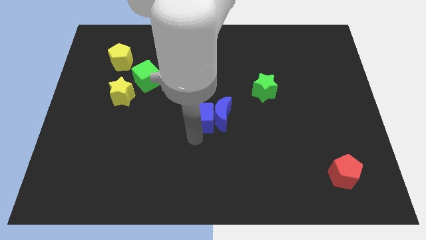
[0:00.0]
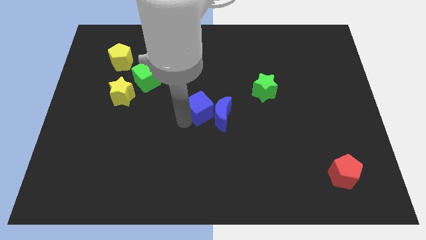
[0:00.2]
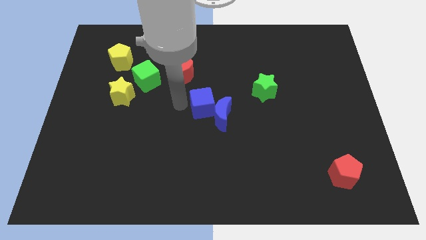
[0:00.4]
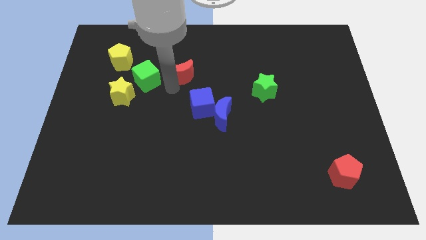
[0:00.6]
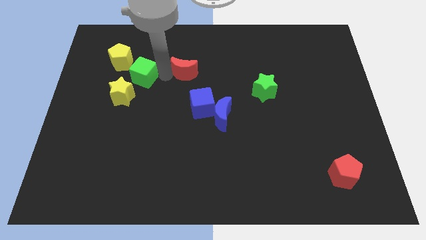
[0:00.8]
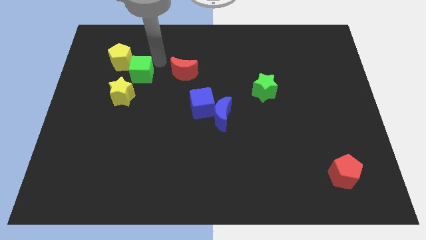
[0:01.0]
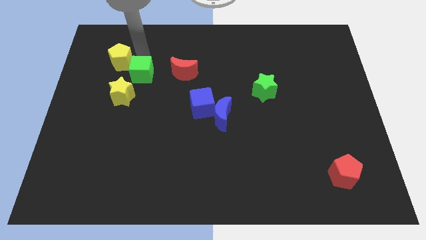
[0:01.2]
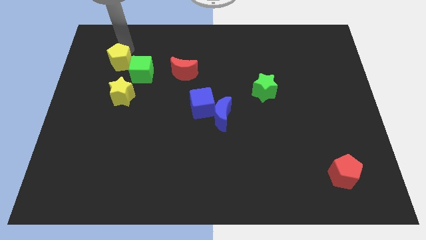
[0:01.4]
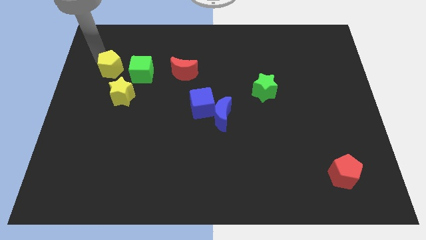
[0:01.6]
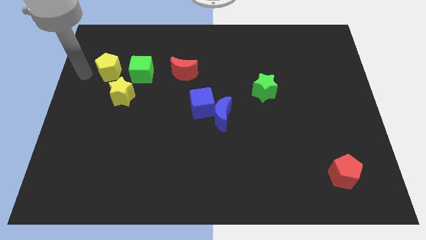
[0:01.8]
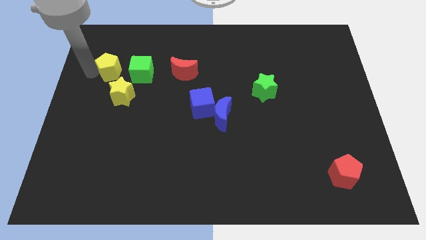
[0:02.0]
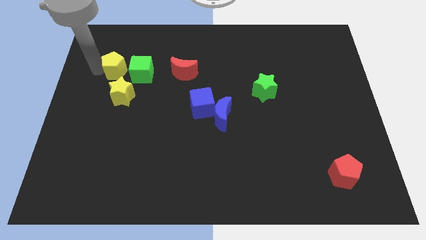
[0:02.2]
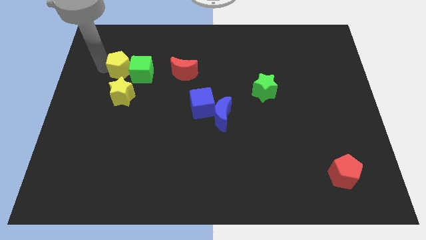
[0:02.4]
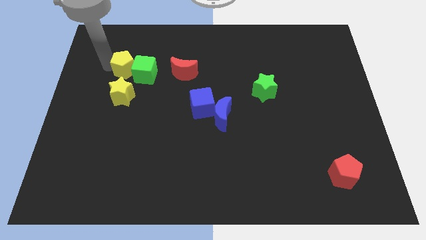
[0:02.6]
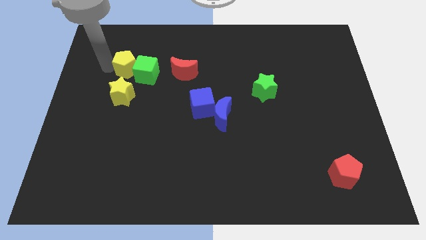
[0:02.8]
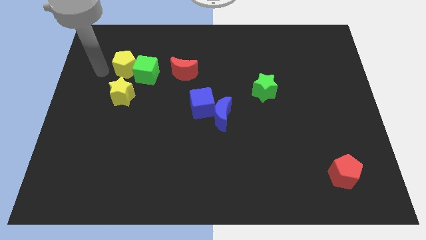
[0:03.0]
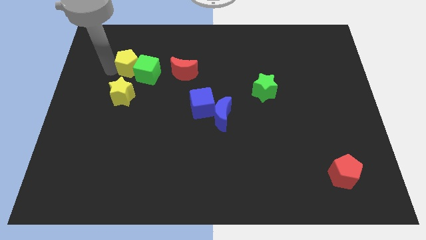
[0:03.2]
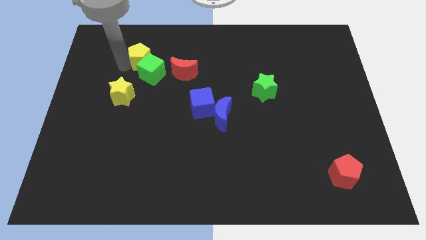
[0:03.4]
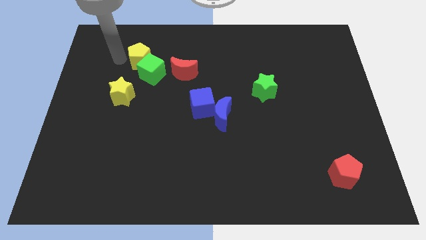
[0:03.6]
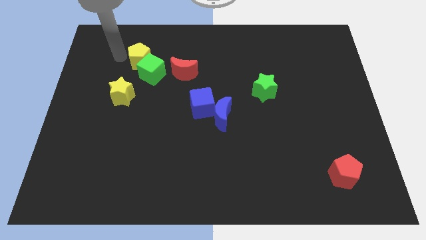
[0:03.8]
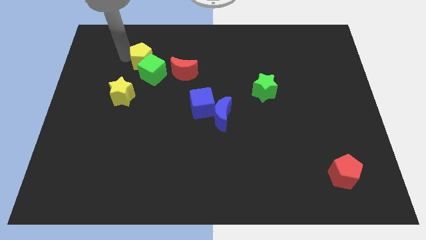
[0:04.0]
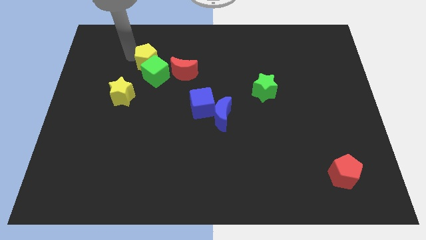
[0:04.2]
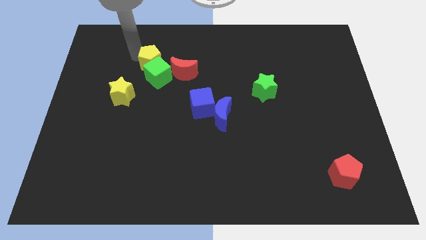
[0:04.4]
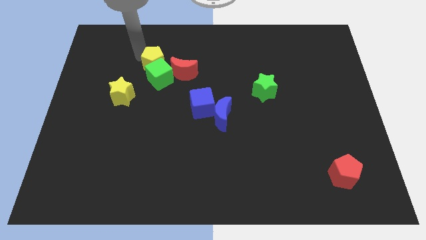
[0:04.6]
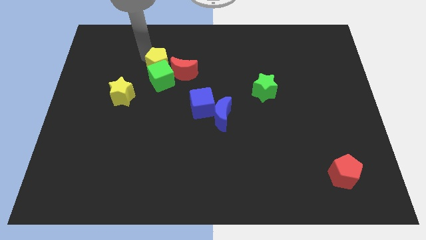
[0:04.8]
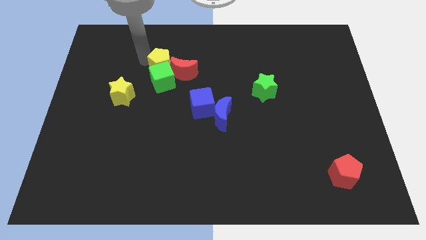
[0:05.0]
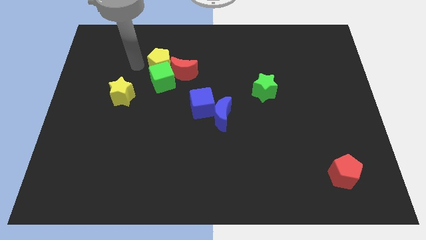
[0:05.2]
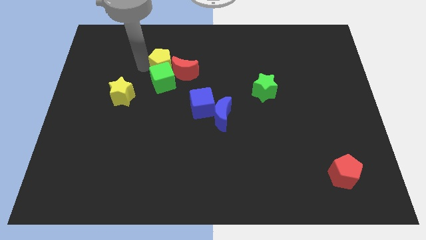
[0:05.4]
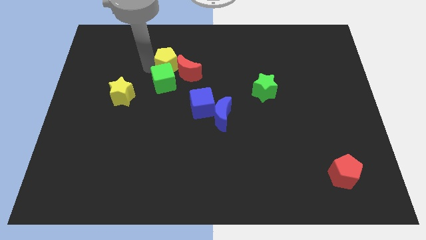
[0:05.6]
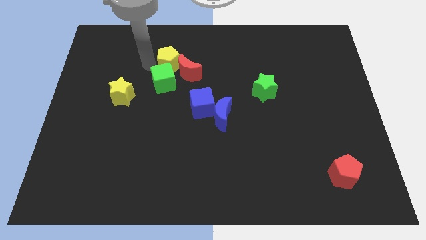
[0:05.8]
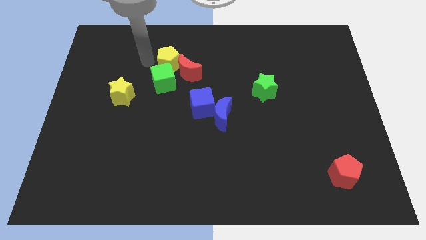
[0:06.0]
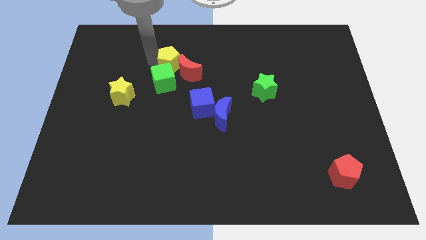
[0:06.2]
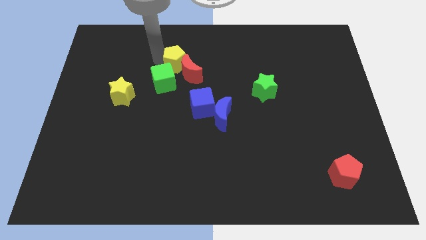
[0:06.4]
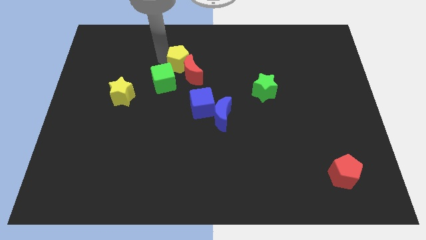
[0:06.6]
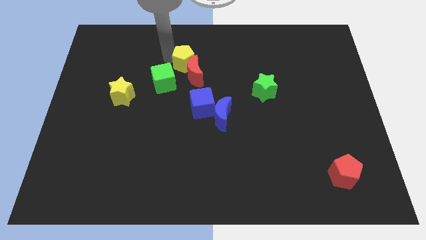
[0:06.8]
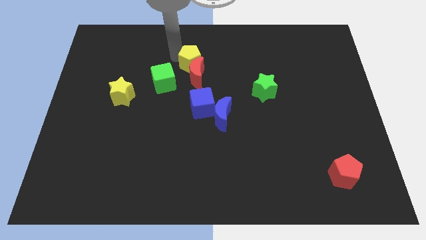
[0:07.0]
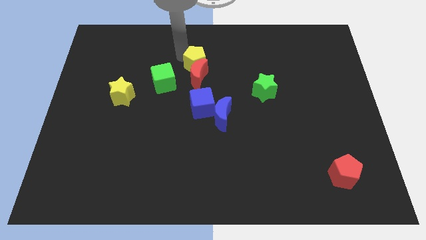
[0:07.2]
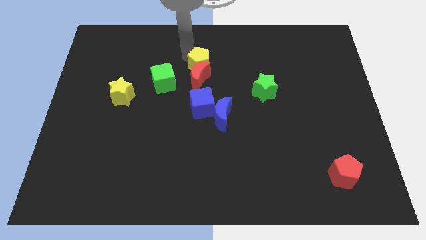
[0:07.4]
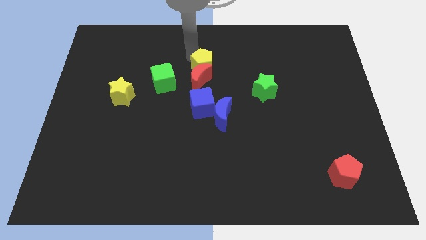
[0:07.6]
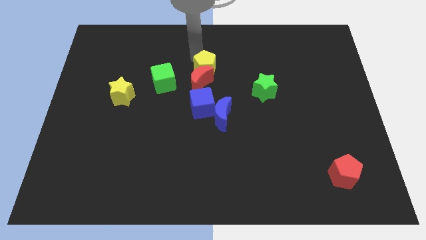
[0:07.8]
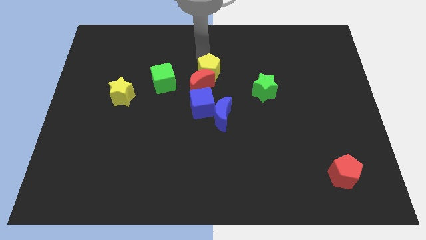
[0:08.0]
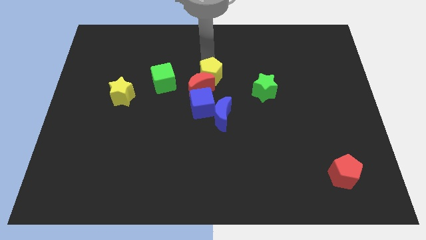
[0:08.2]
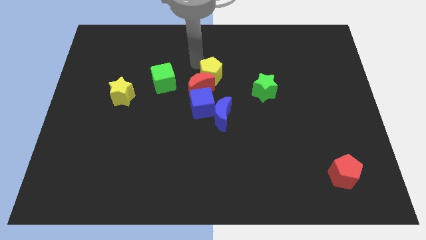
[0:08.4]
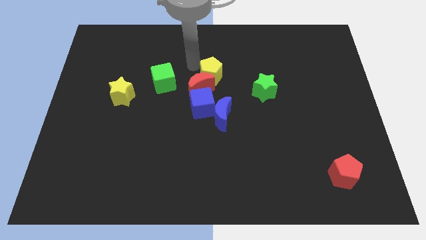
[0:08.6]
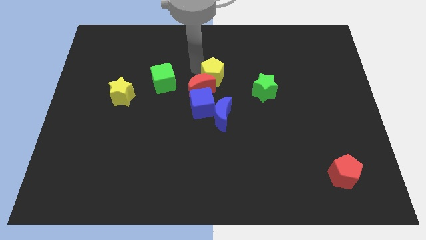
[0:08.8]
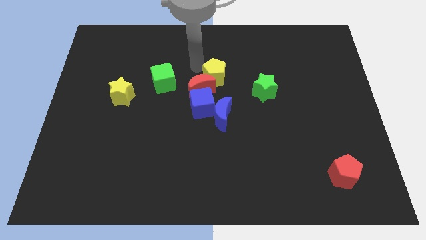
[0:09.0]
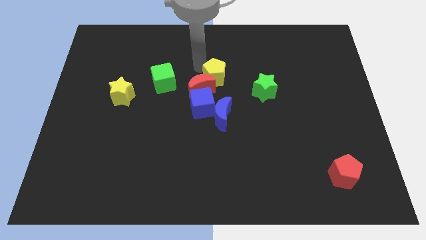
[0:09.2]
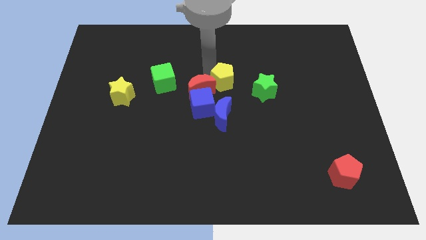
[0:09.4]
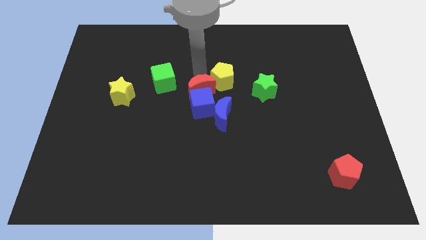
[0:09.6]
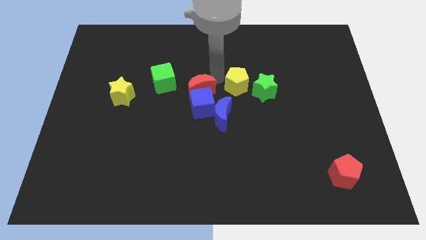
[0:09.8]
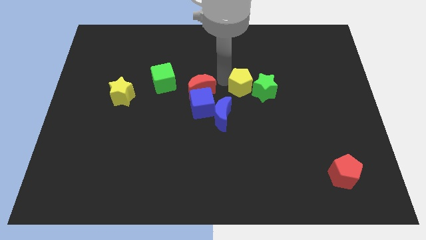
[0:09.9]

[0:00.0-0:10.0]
slide the yellow pentagon to the green star

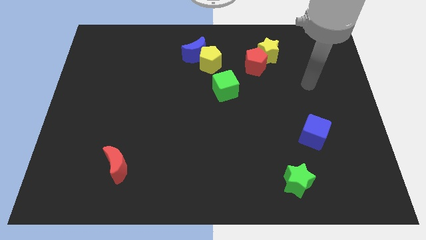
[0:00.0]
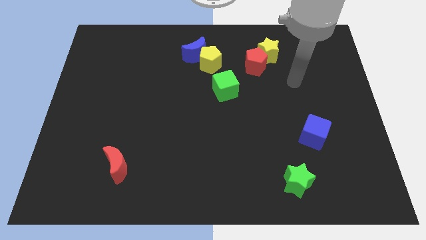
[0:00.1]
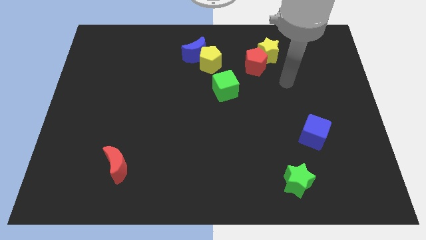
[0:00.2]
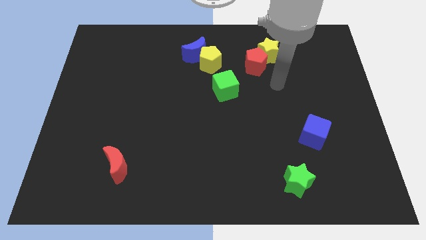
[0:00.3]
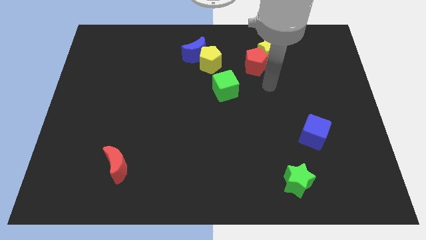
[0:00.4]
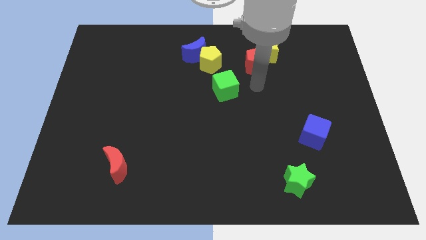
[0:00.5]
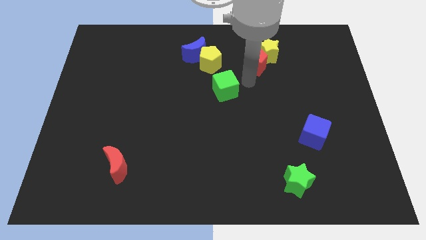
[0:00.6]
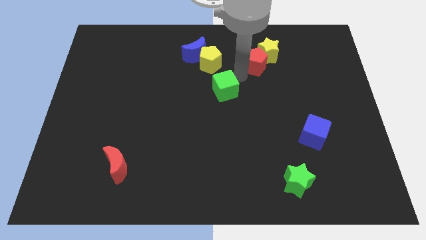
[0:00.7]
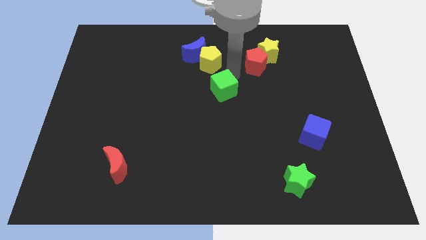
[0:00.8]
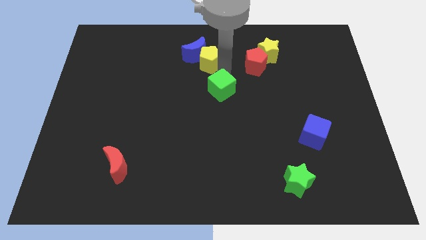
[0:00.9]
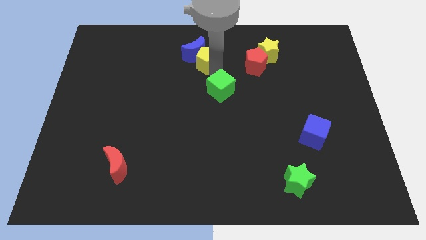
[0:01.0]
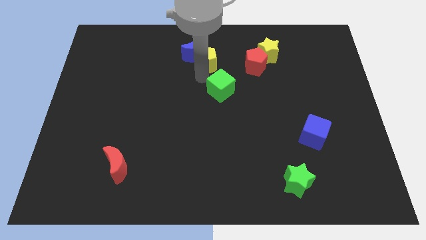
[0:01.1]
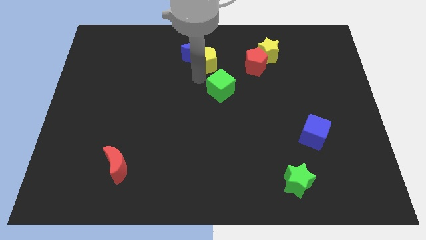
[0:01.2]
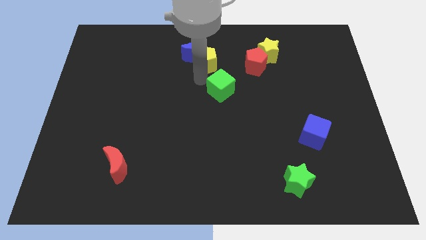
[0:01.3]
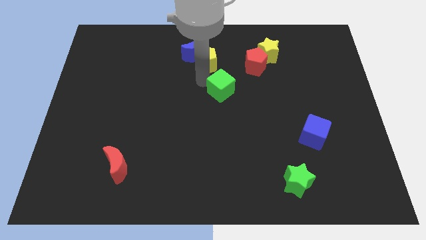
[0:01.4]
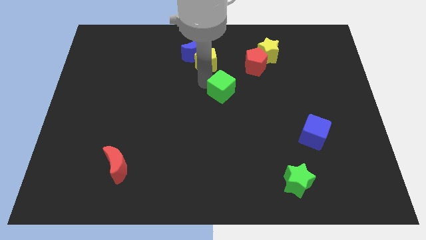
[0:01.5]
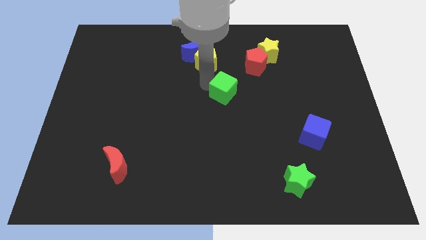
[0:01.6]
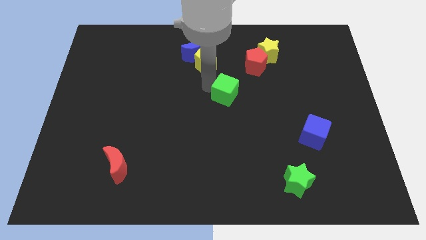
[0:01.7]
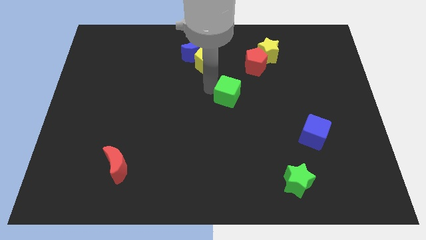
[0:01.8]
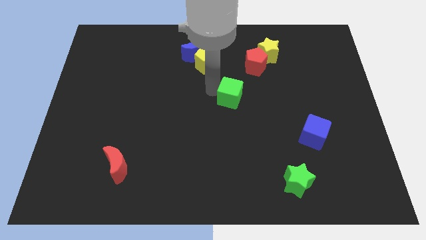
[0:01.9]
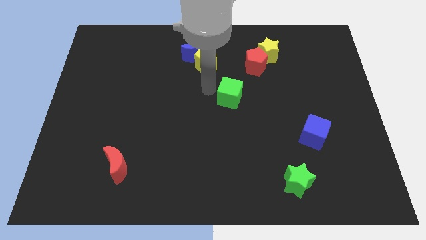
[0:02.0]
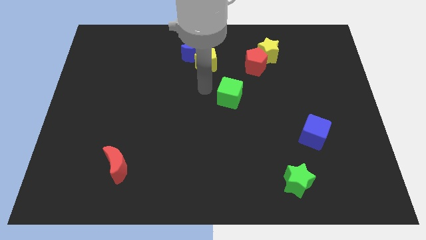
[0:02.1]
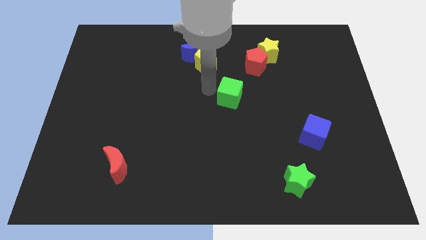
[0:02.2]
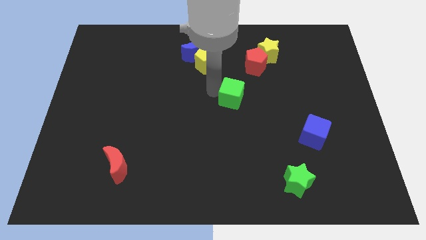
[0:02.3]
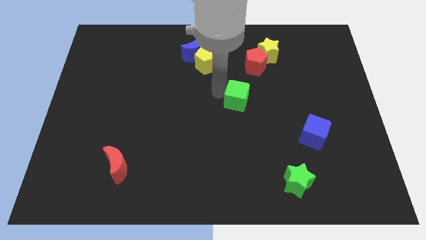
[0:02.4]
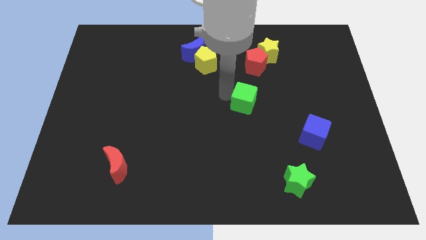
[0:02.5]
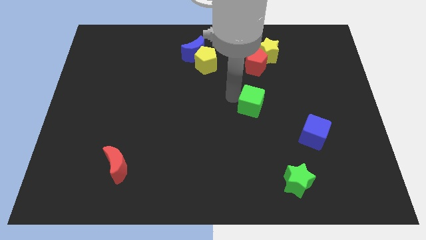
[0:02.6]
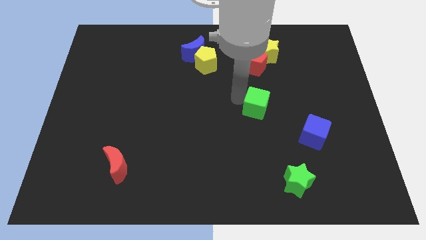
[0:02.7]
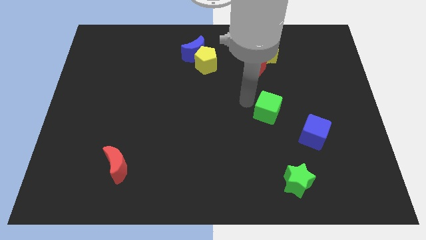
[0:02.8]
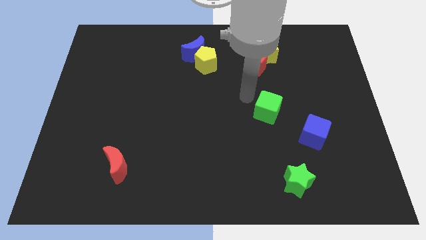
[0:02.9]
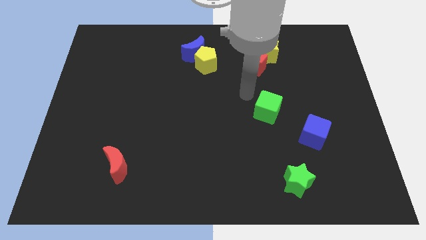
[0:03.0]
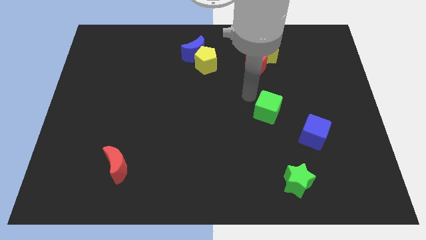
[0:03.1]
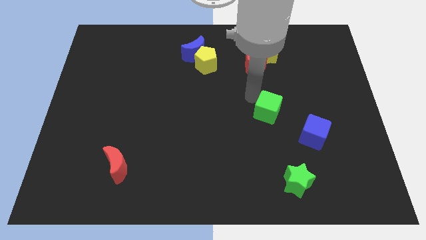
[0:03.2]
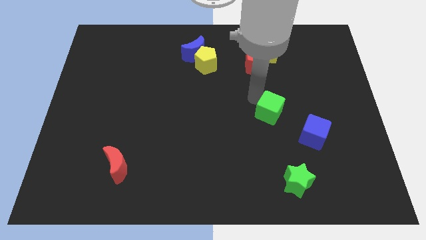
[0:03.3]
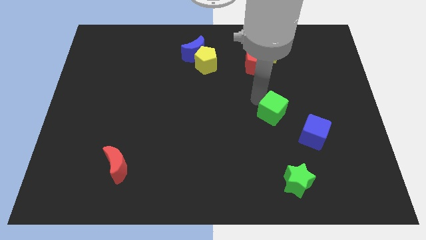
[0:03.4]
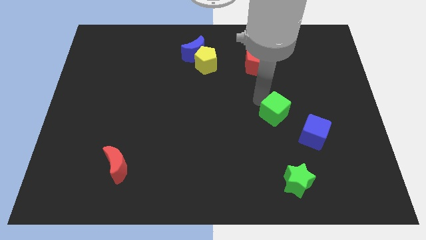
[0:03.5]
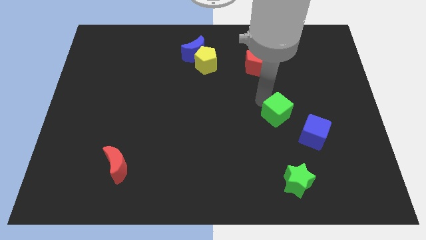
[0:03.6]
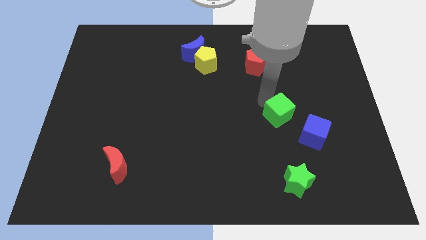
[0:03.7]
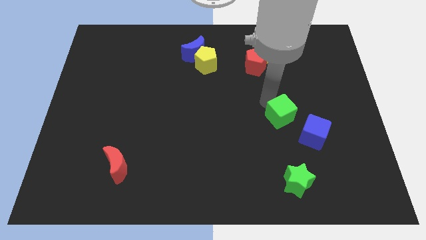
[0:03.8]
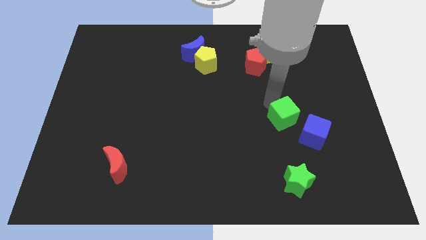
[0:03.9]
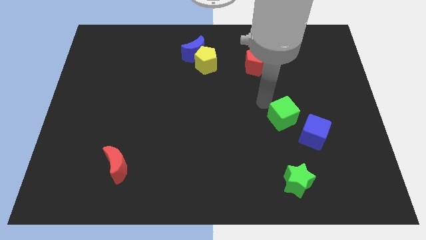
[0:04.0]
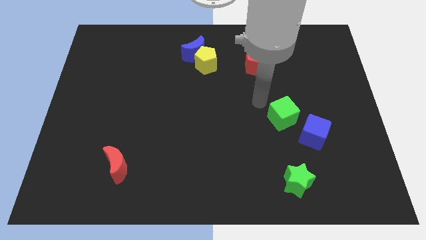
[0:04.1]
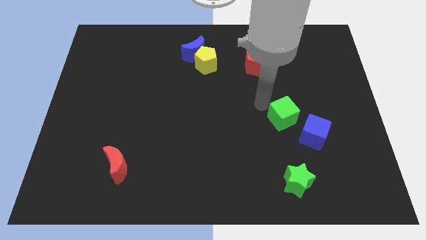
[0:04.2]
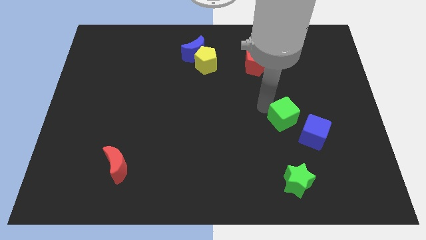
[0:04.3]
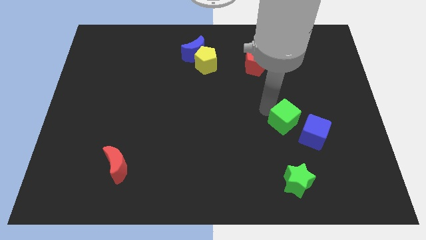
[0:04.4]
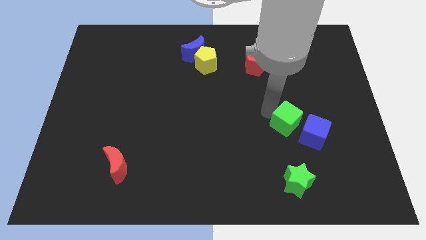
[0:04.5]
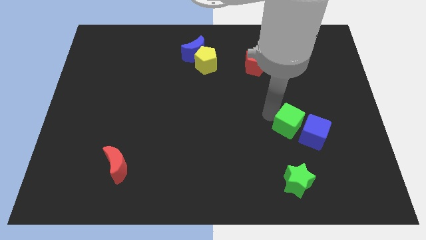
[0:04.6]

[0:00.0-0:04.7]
move the green cube next to the blue cube
